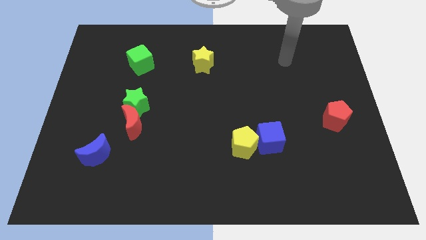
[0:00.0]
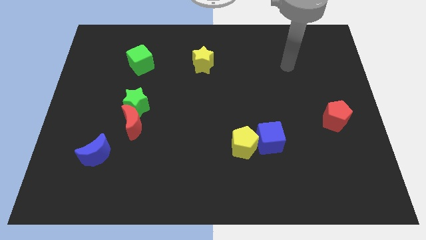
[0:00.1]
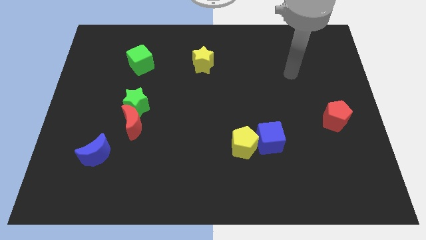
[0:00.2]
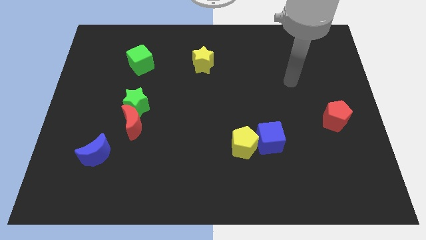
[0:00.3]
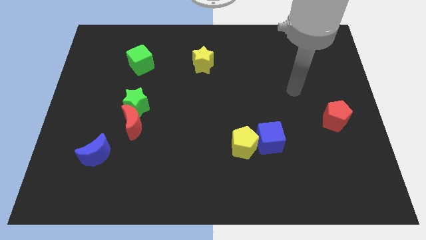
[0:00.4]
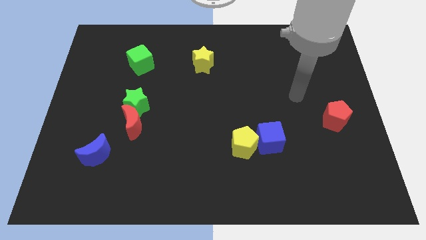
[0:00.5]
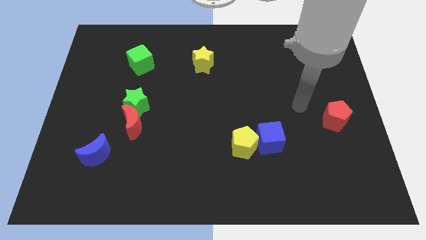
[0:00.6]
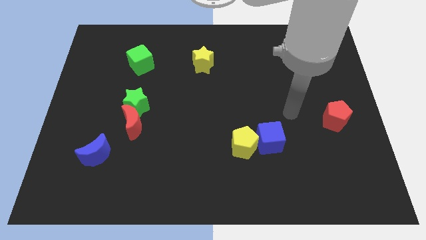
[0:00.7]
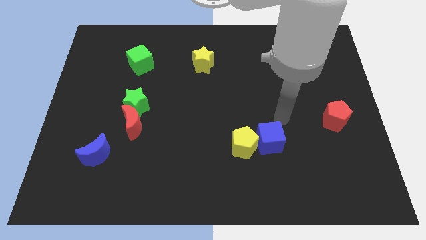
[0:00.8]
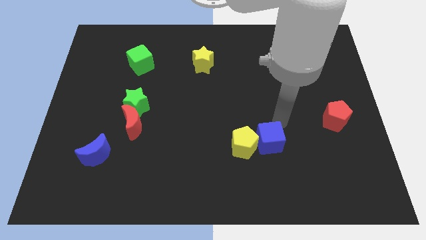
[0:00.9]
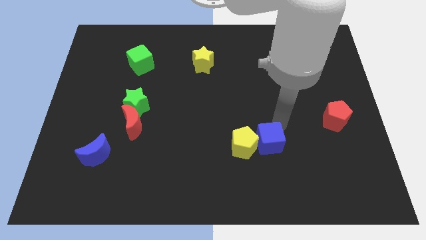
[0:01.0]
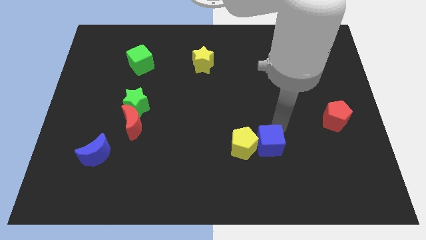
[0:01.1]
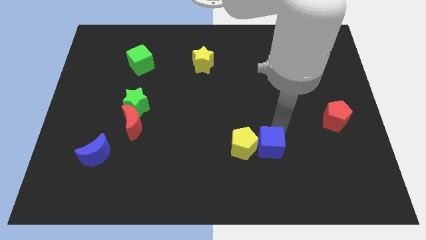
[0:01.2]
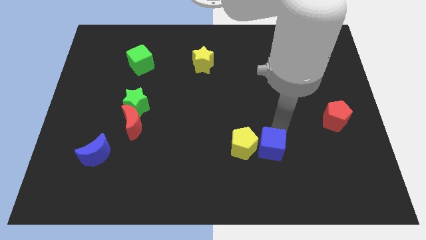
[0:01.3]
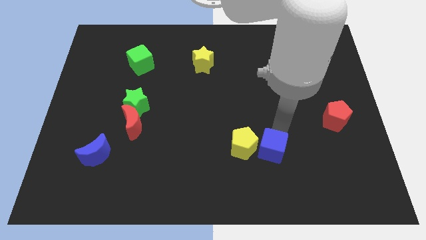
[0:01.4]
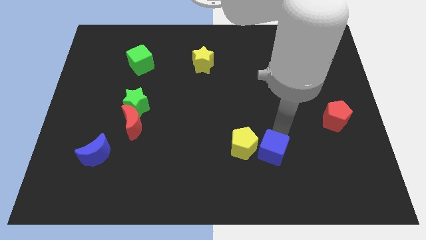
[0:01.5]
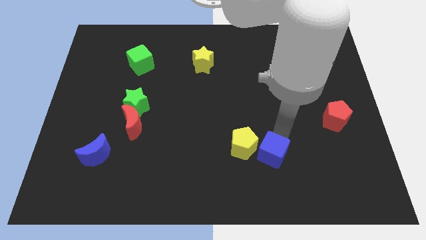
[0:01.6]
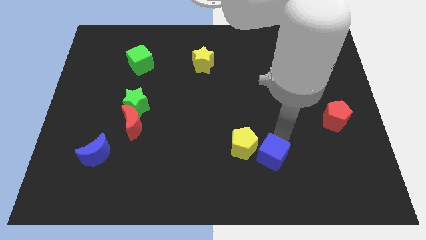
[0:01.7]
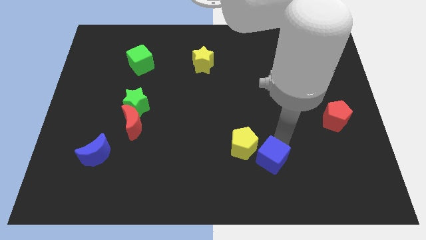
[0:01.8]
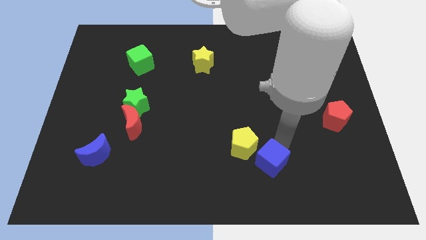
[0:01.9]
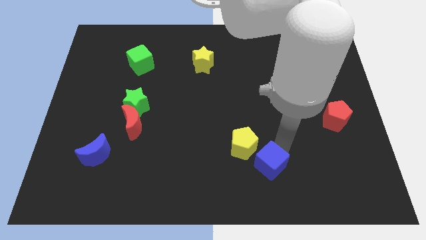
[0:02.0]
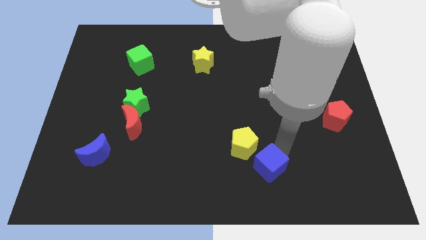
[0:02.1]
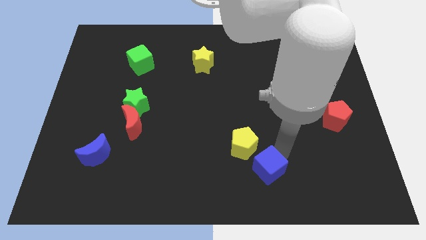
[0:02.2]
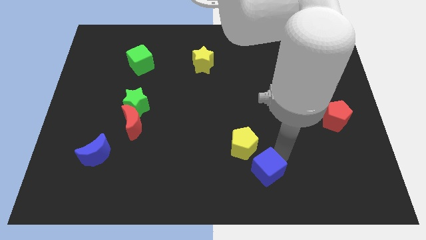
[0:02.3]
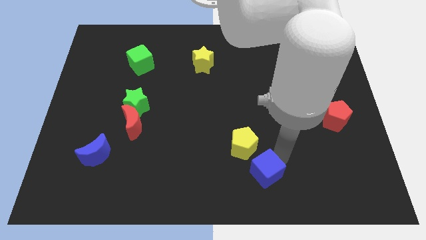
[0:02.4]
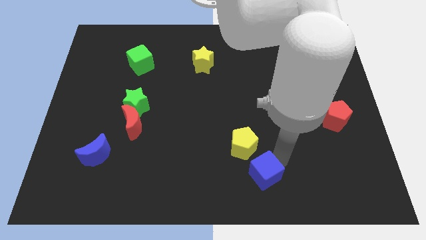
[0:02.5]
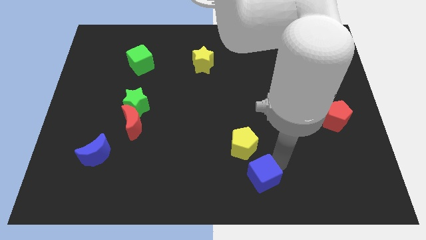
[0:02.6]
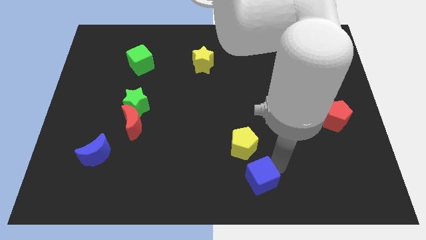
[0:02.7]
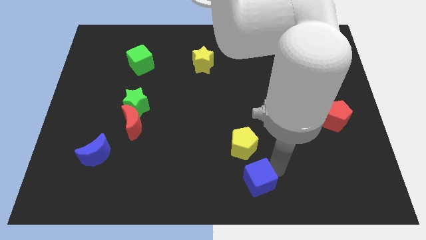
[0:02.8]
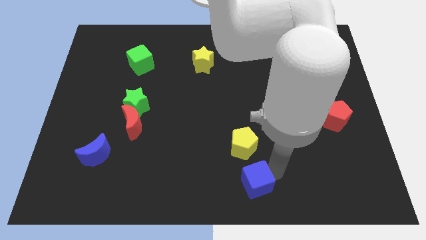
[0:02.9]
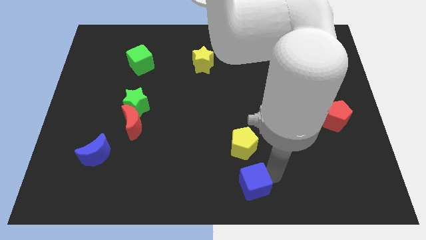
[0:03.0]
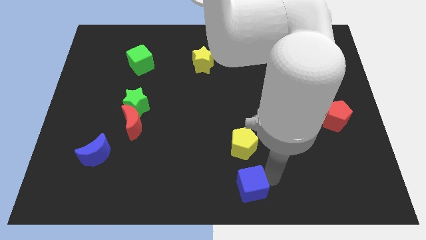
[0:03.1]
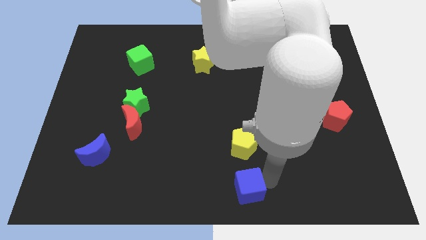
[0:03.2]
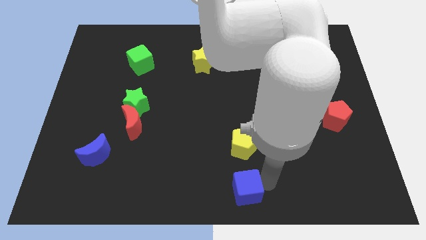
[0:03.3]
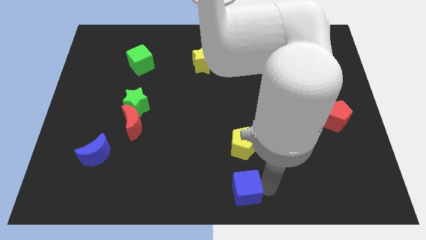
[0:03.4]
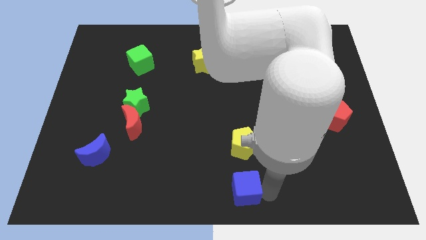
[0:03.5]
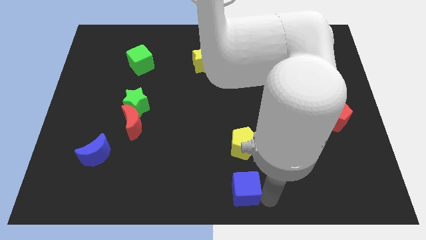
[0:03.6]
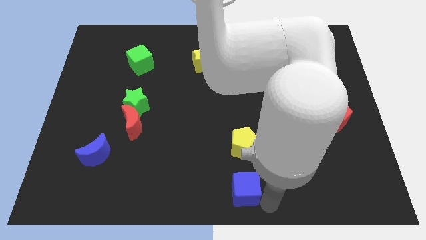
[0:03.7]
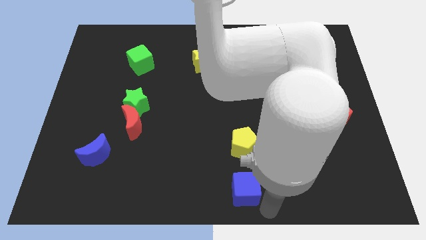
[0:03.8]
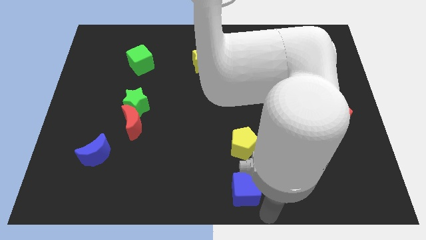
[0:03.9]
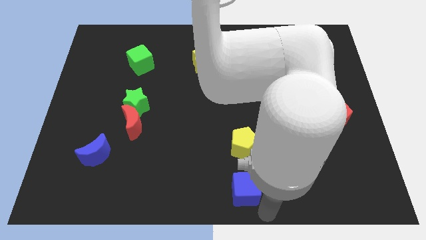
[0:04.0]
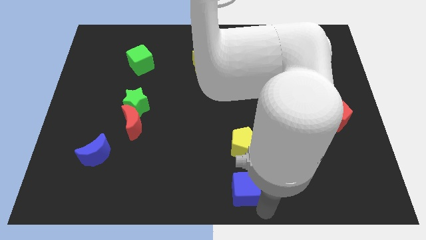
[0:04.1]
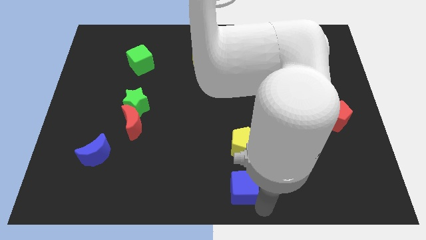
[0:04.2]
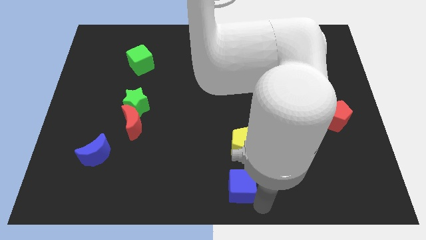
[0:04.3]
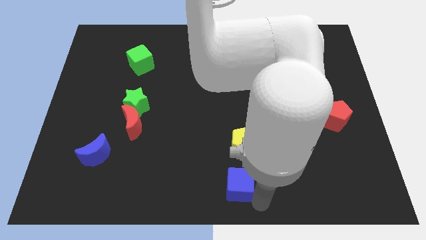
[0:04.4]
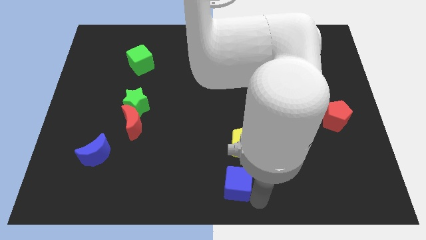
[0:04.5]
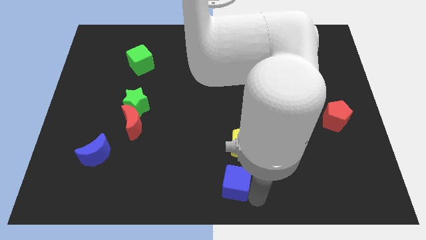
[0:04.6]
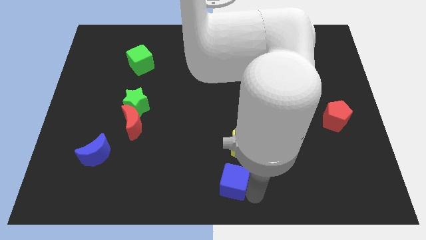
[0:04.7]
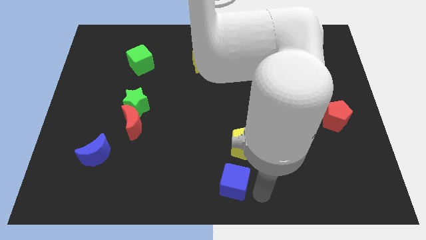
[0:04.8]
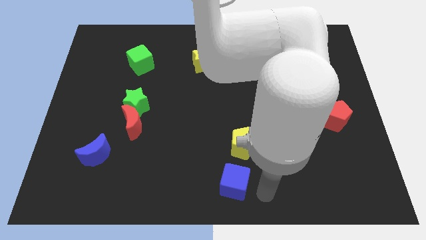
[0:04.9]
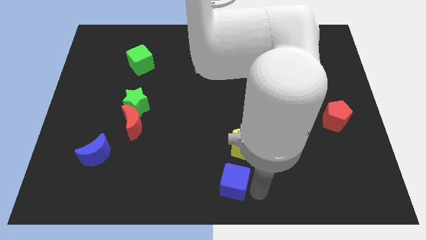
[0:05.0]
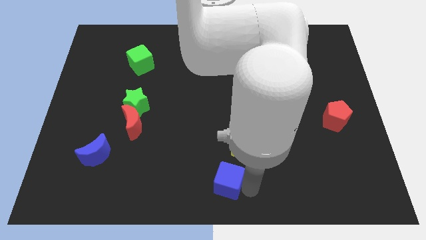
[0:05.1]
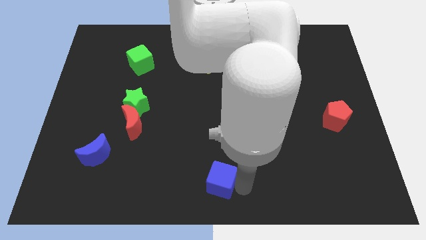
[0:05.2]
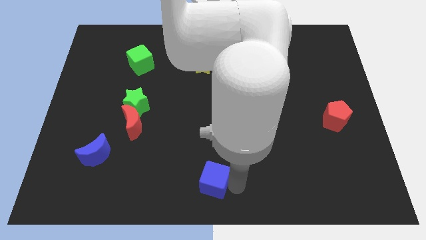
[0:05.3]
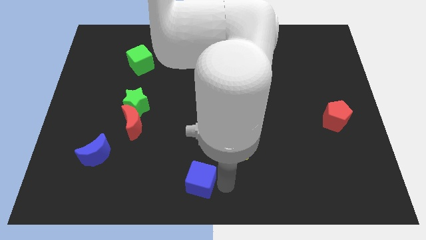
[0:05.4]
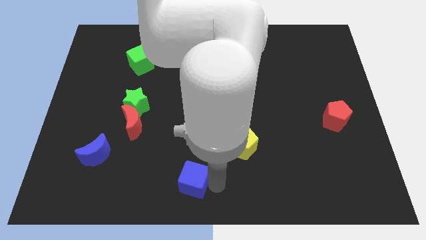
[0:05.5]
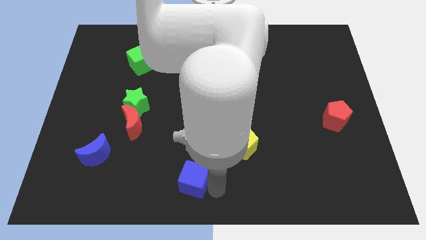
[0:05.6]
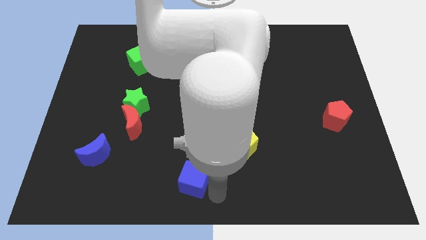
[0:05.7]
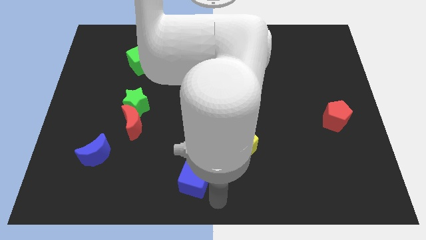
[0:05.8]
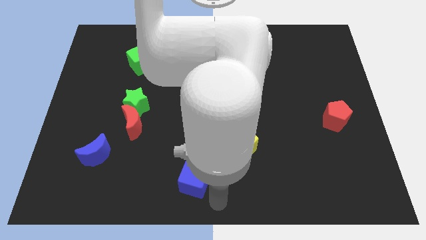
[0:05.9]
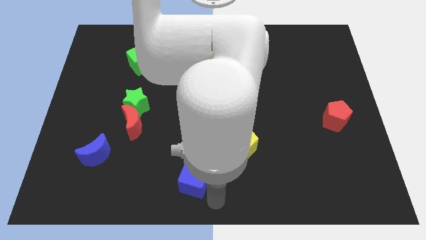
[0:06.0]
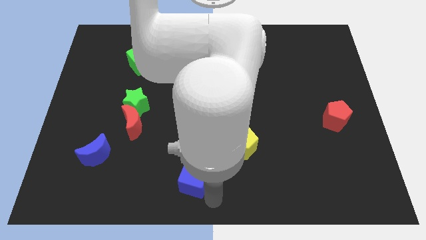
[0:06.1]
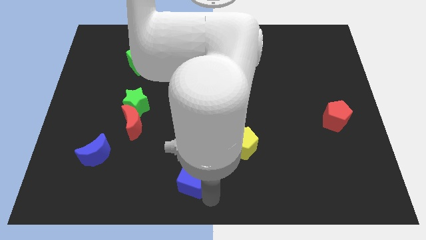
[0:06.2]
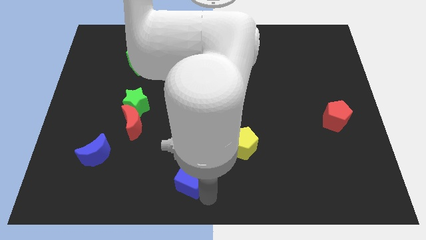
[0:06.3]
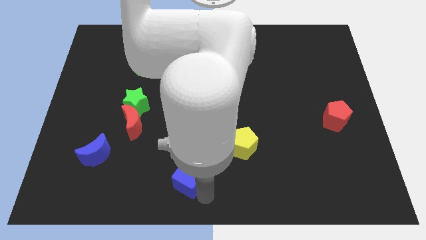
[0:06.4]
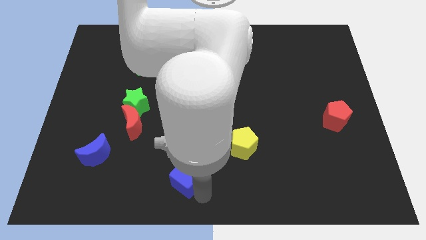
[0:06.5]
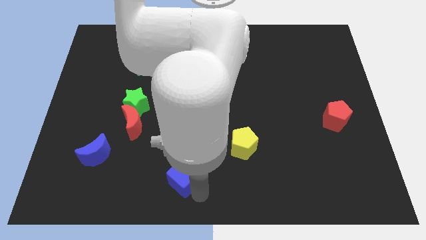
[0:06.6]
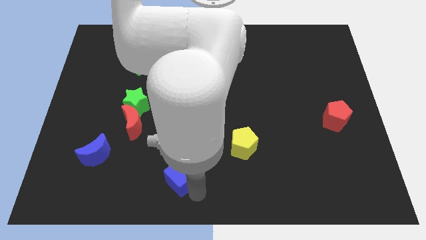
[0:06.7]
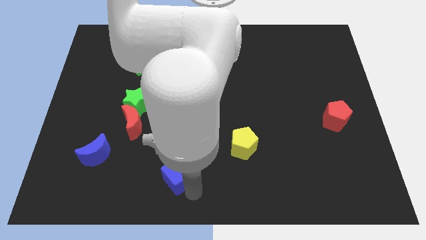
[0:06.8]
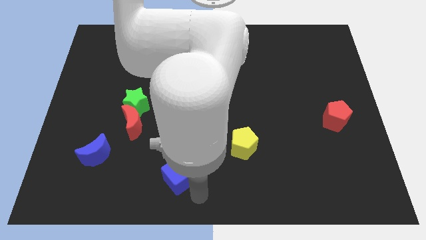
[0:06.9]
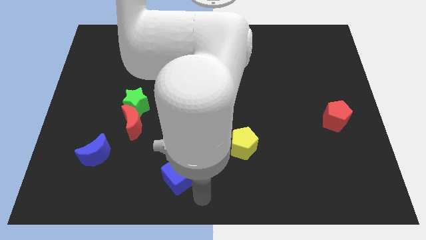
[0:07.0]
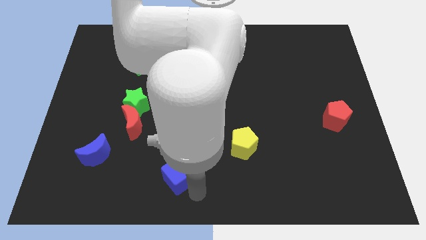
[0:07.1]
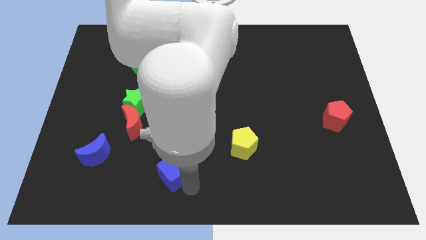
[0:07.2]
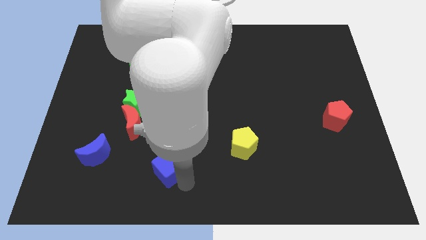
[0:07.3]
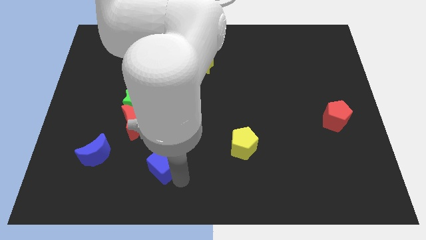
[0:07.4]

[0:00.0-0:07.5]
put the blue cube to the right side of the blue moon
